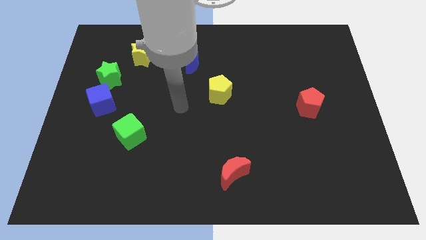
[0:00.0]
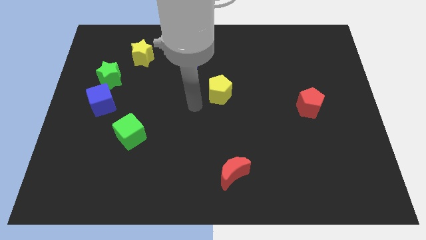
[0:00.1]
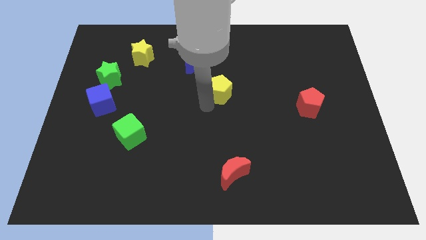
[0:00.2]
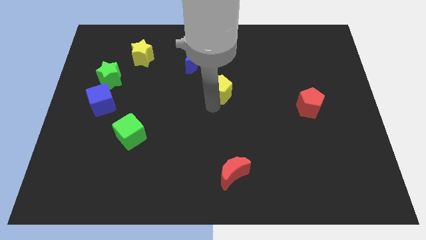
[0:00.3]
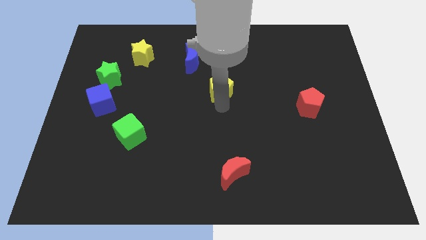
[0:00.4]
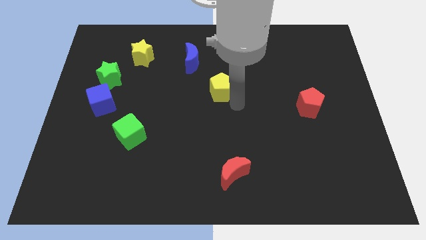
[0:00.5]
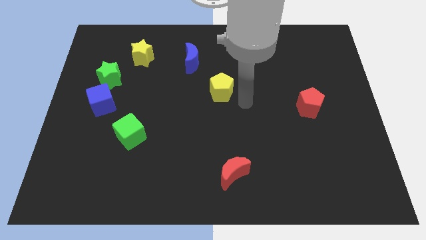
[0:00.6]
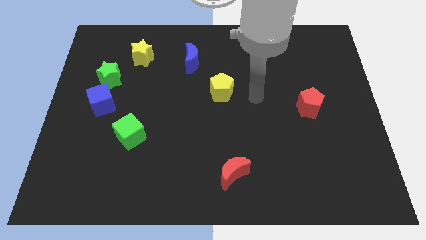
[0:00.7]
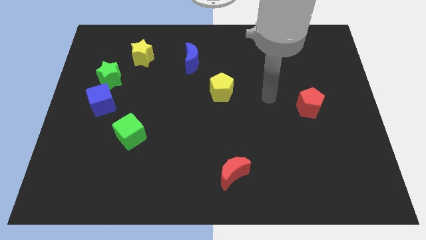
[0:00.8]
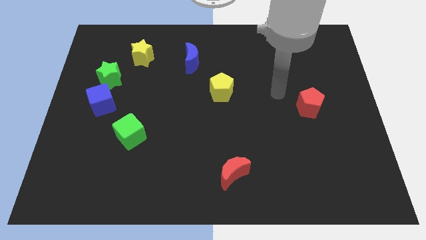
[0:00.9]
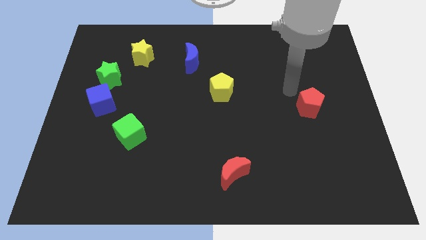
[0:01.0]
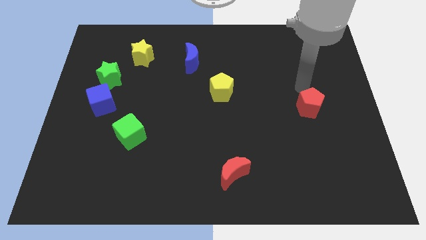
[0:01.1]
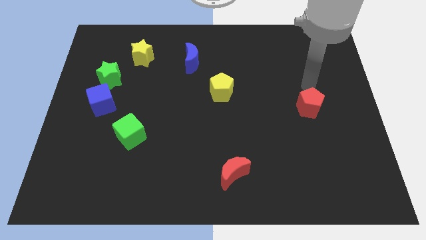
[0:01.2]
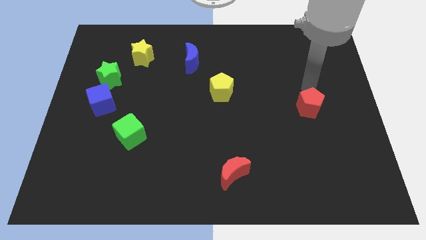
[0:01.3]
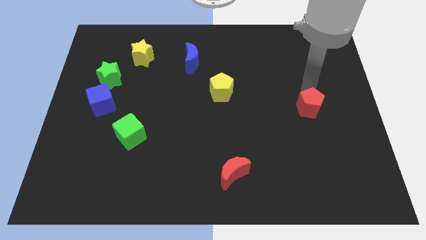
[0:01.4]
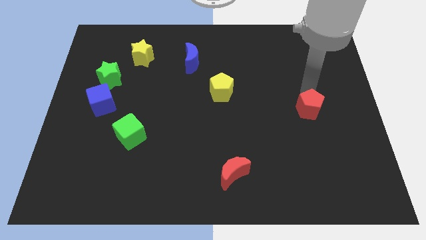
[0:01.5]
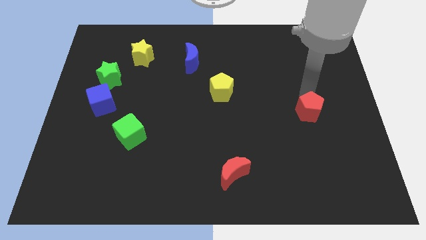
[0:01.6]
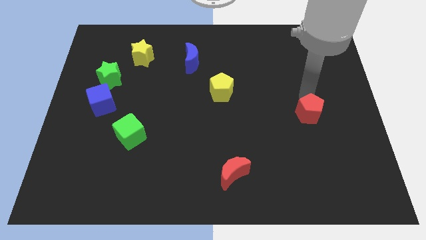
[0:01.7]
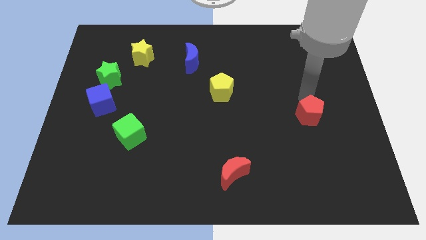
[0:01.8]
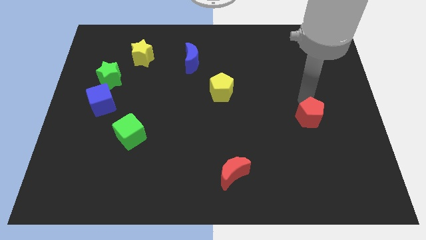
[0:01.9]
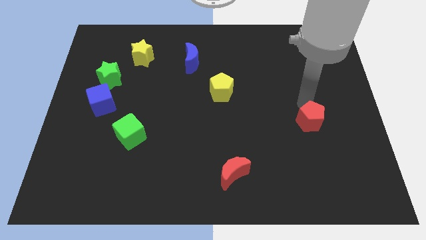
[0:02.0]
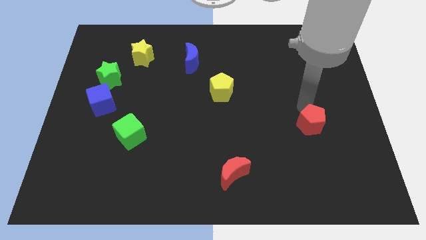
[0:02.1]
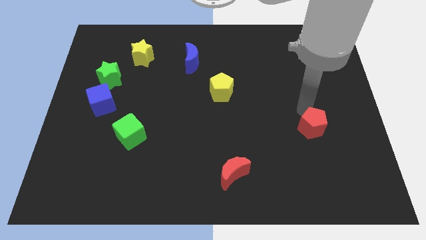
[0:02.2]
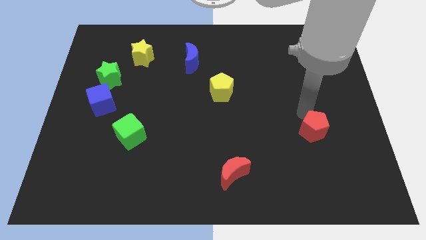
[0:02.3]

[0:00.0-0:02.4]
push the red pentagon downwards somewhat

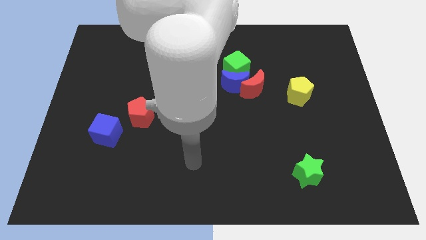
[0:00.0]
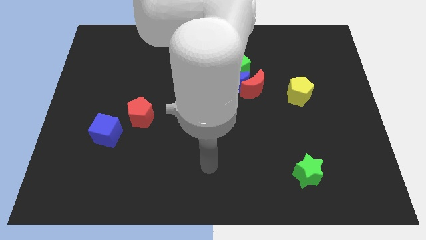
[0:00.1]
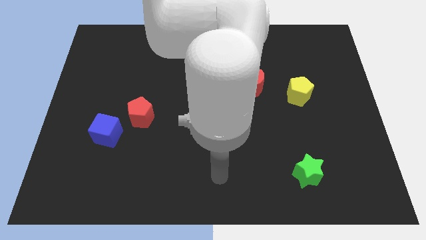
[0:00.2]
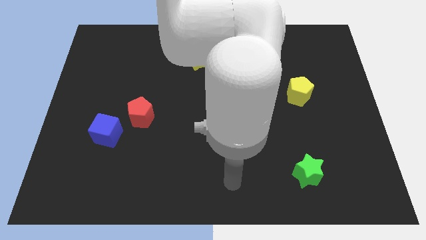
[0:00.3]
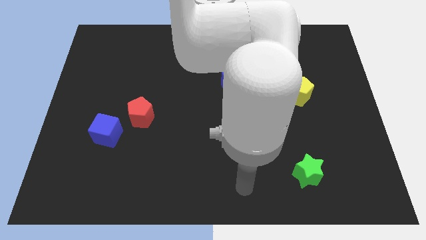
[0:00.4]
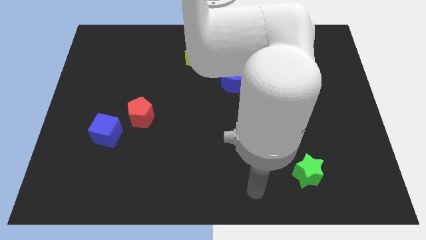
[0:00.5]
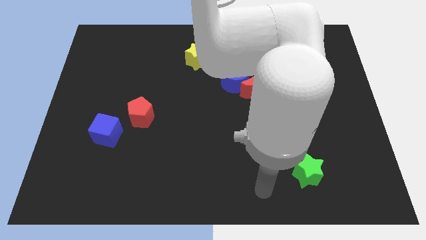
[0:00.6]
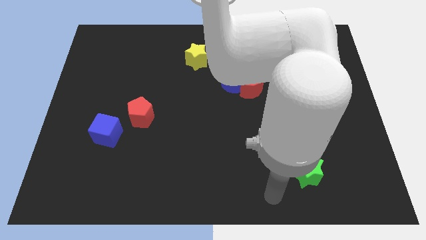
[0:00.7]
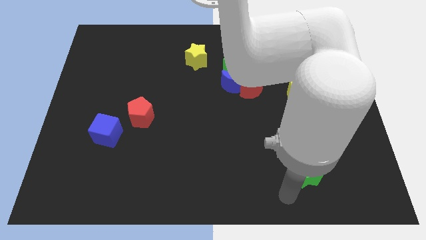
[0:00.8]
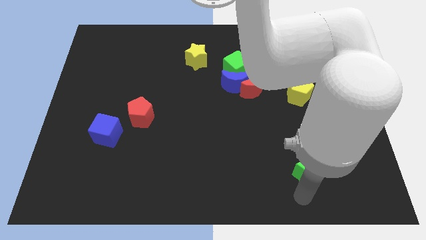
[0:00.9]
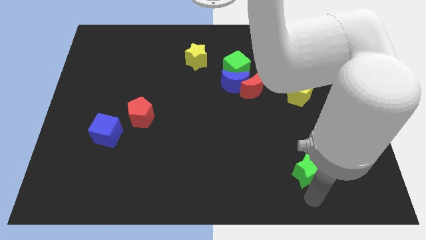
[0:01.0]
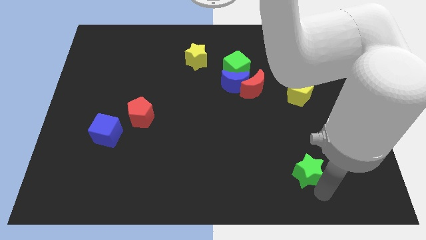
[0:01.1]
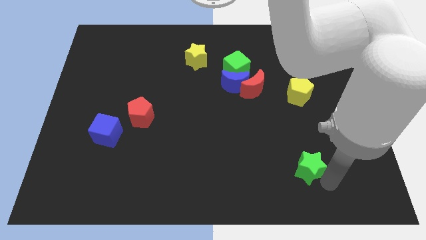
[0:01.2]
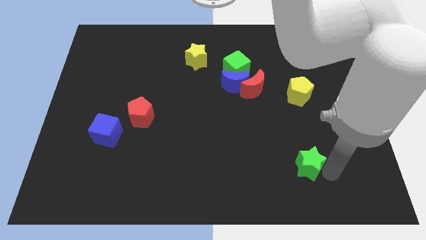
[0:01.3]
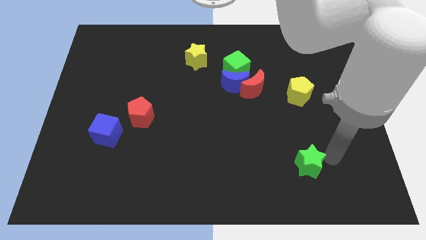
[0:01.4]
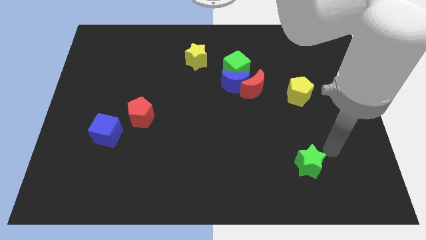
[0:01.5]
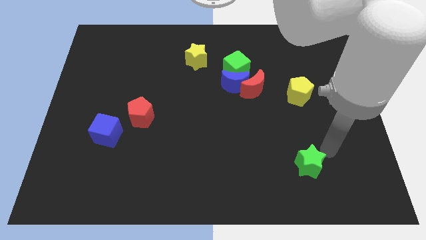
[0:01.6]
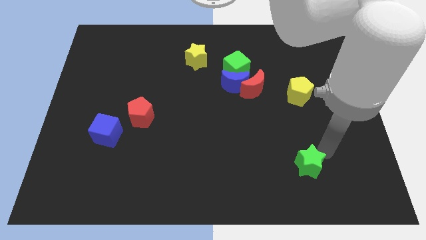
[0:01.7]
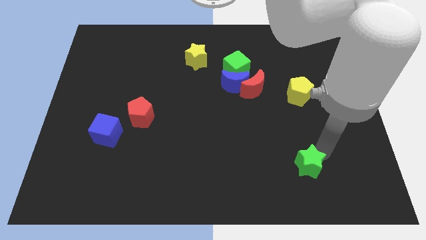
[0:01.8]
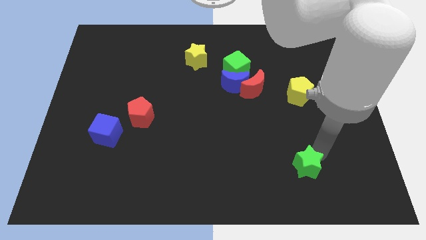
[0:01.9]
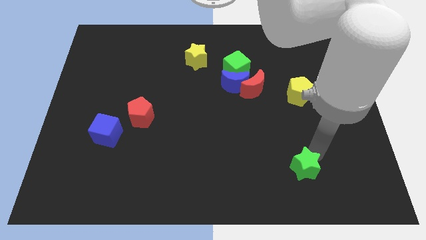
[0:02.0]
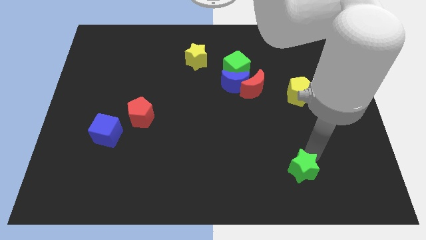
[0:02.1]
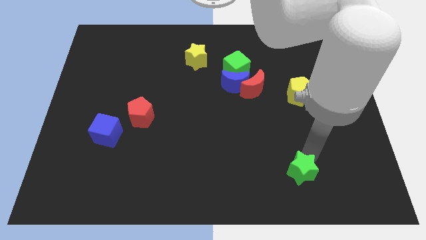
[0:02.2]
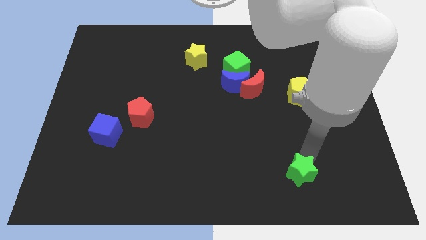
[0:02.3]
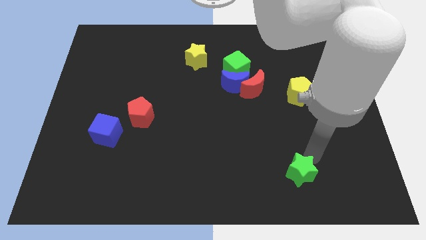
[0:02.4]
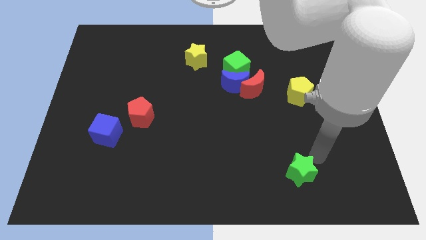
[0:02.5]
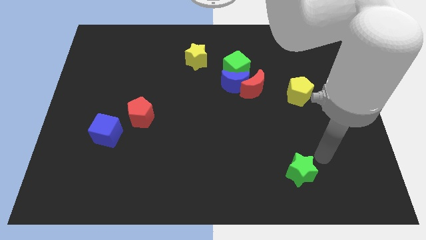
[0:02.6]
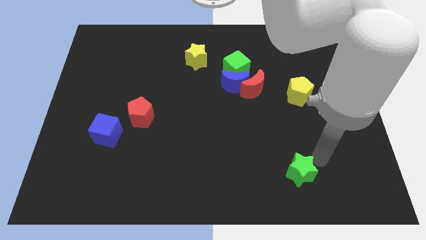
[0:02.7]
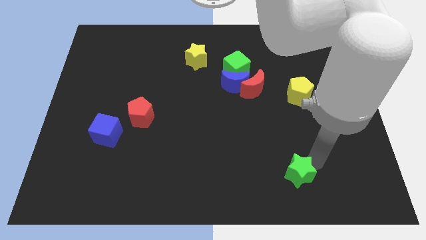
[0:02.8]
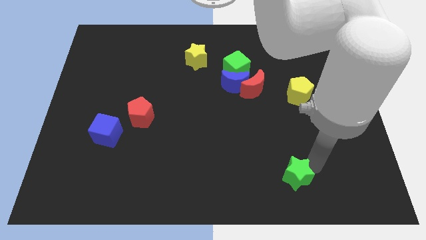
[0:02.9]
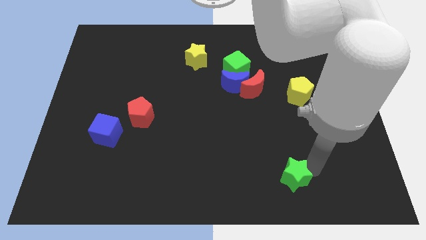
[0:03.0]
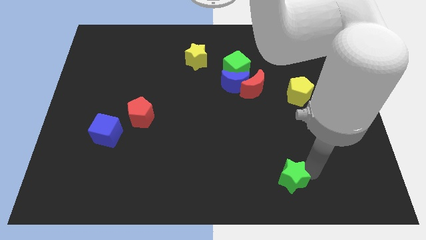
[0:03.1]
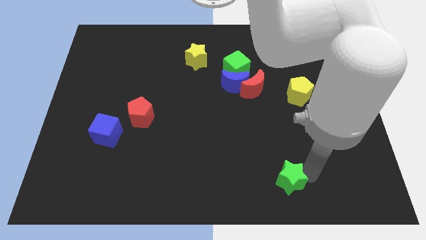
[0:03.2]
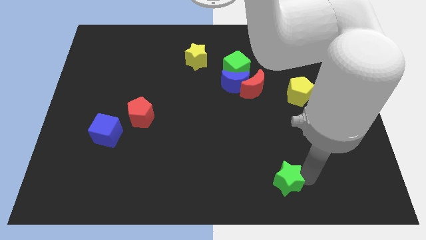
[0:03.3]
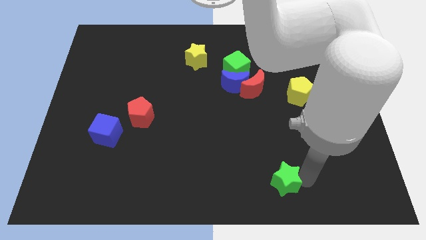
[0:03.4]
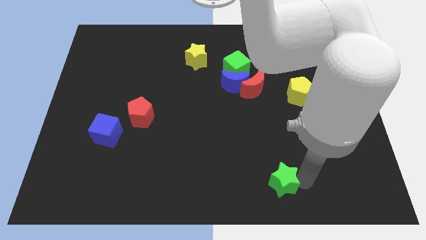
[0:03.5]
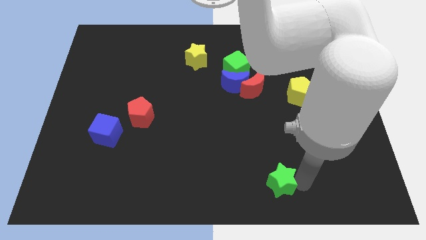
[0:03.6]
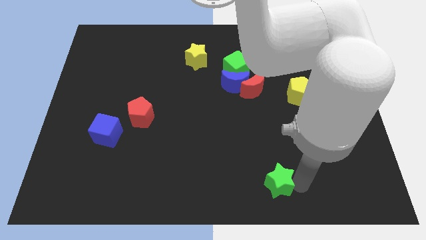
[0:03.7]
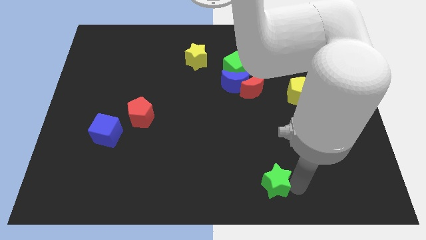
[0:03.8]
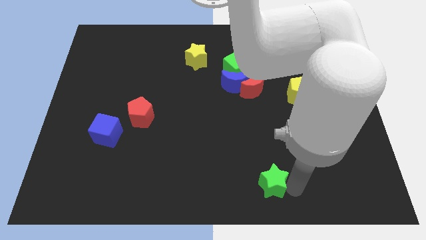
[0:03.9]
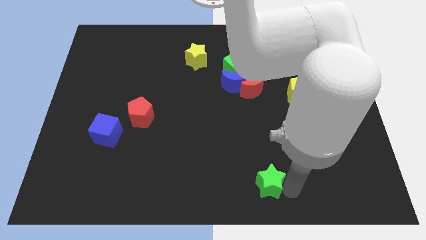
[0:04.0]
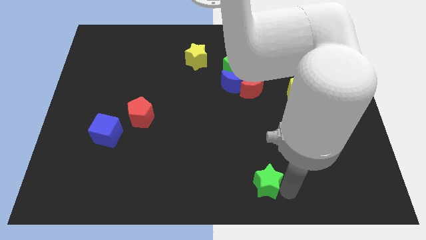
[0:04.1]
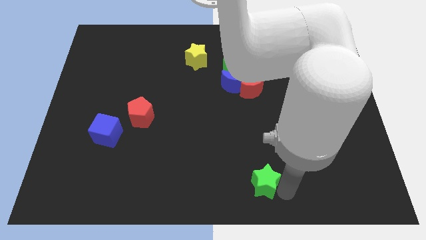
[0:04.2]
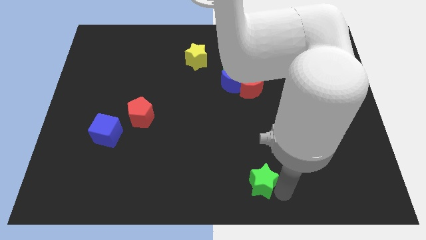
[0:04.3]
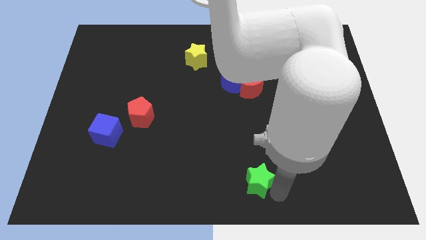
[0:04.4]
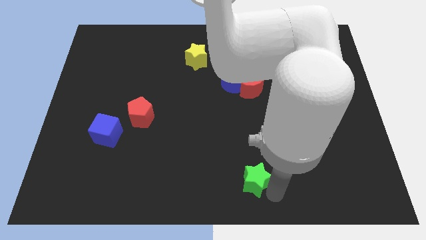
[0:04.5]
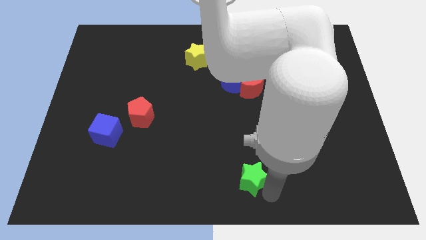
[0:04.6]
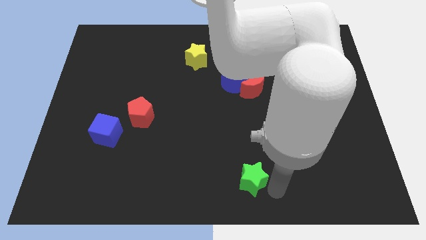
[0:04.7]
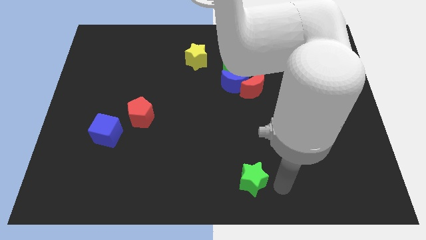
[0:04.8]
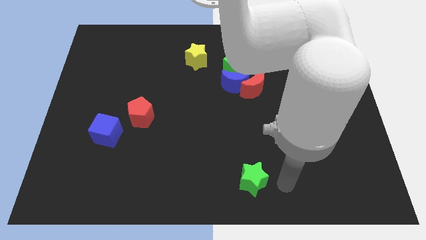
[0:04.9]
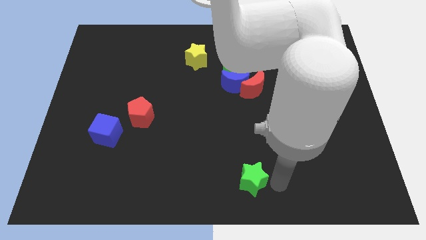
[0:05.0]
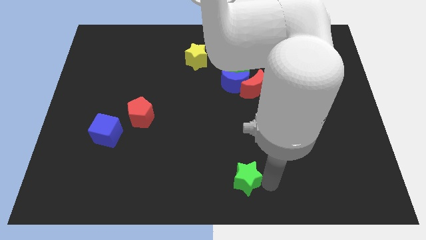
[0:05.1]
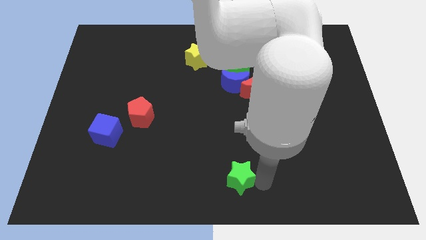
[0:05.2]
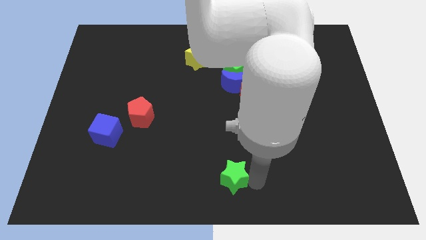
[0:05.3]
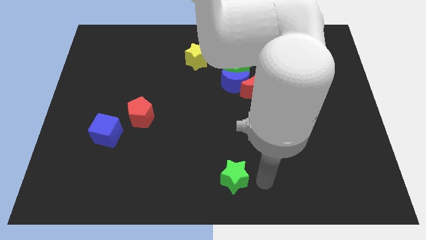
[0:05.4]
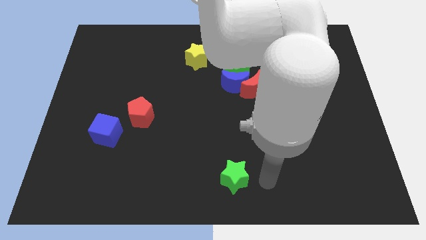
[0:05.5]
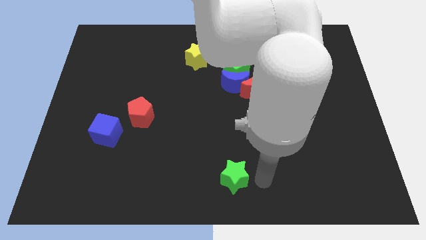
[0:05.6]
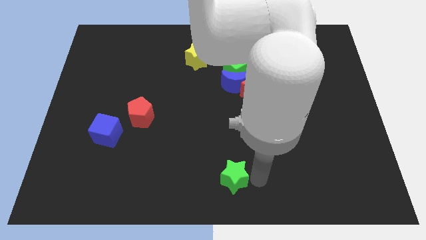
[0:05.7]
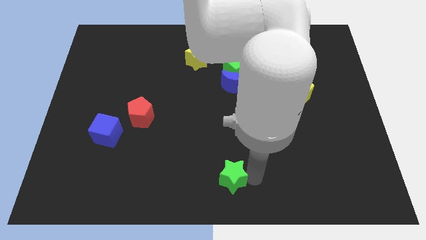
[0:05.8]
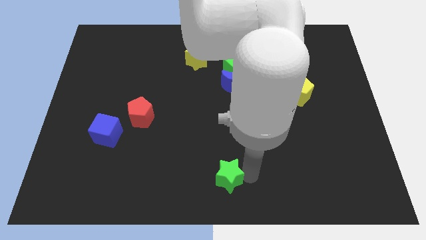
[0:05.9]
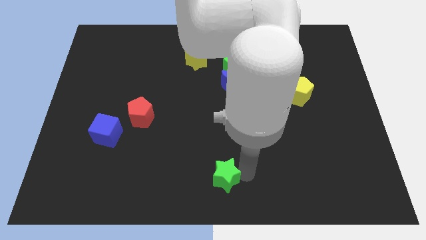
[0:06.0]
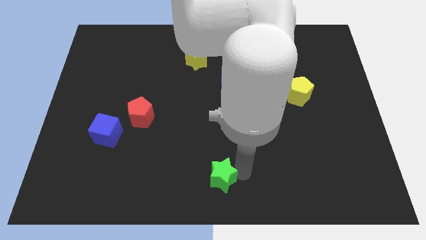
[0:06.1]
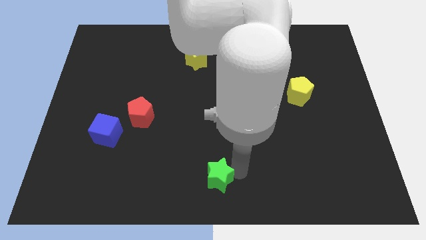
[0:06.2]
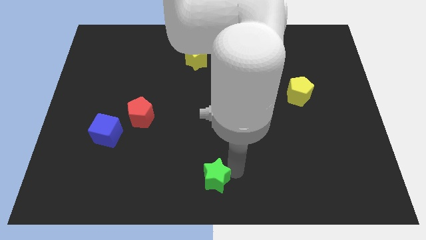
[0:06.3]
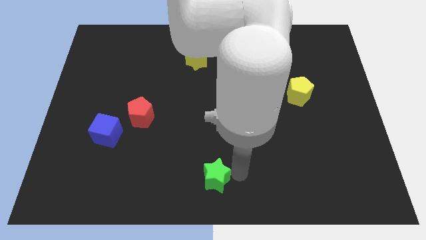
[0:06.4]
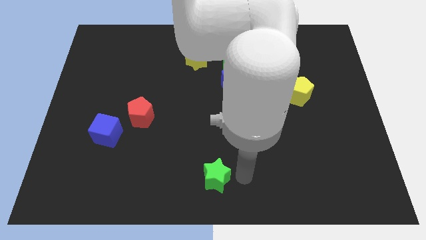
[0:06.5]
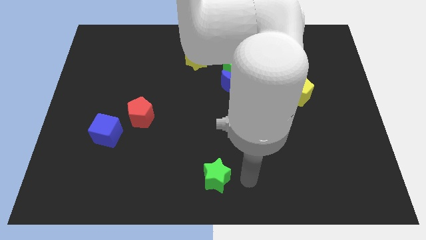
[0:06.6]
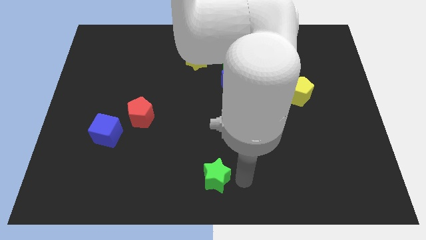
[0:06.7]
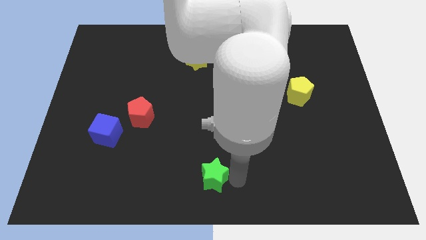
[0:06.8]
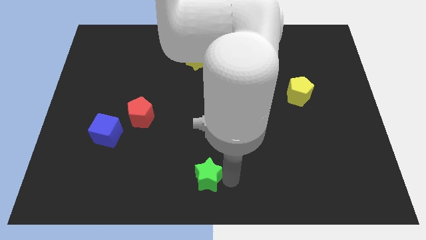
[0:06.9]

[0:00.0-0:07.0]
push the green star to the left
